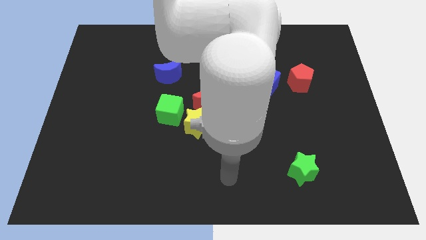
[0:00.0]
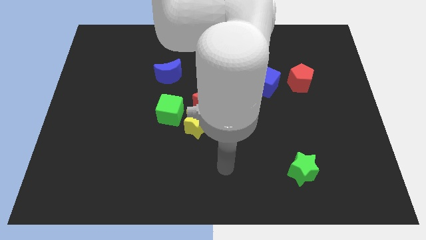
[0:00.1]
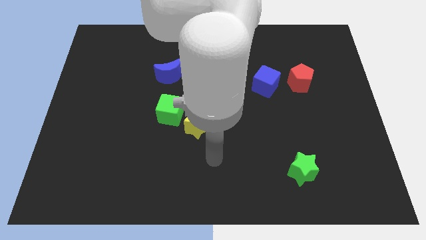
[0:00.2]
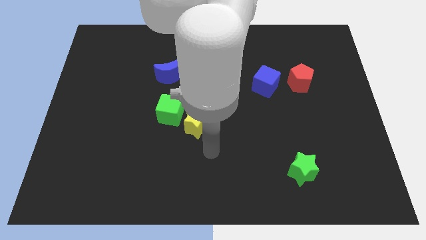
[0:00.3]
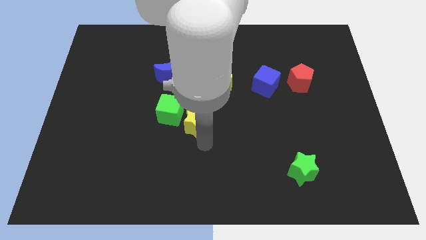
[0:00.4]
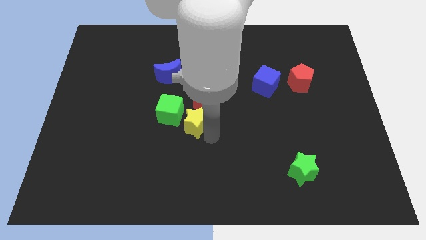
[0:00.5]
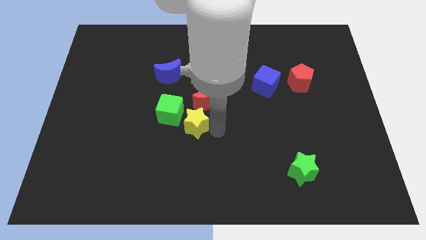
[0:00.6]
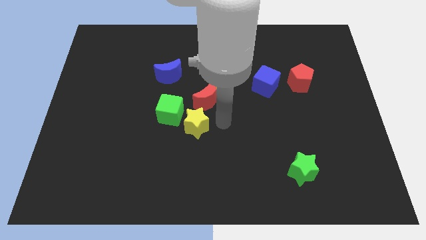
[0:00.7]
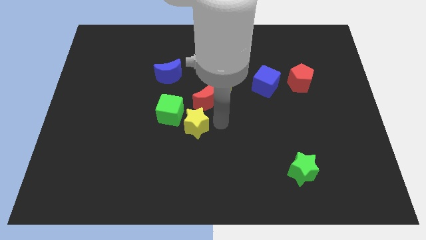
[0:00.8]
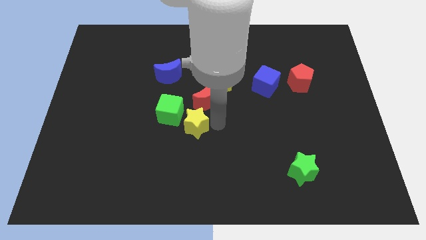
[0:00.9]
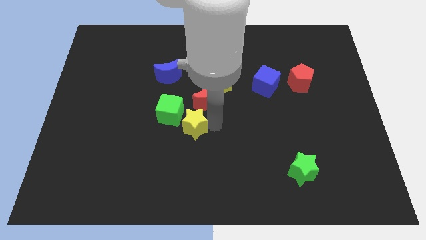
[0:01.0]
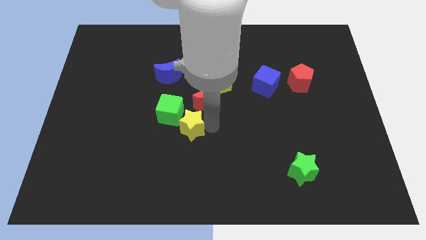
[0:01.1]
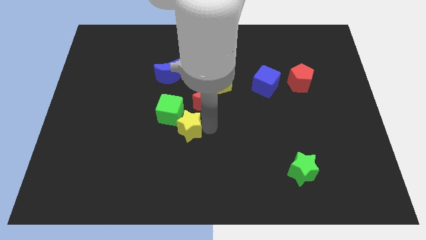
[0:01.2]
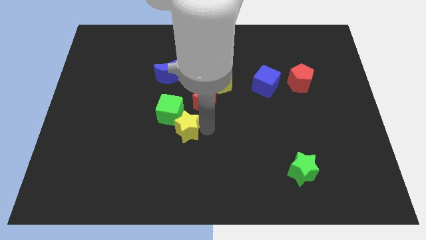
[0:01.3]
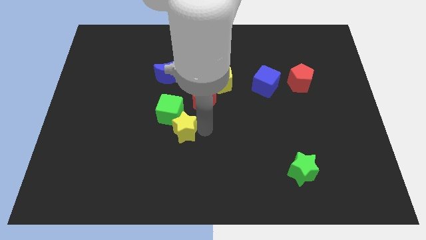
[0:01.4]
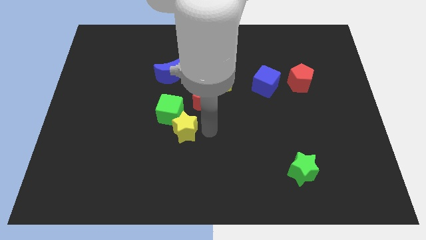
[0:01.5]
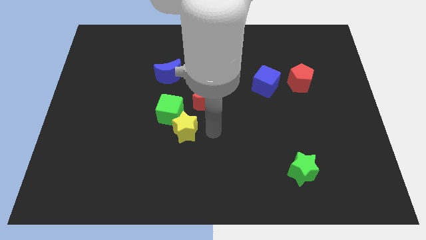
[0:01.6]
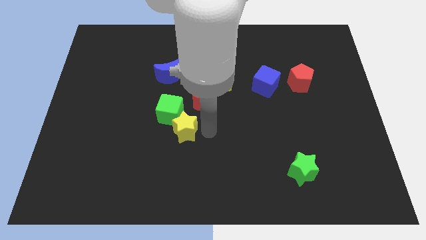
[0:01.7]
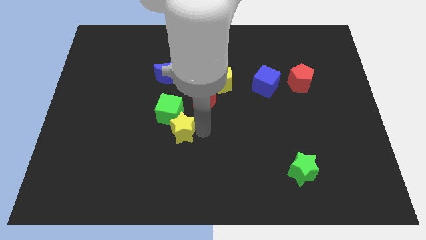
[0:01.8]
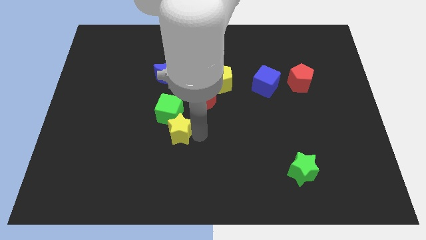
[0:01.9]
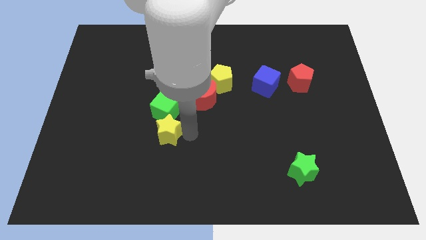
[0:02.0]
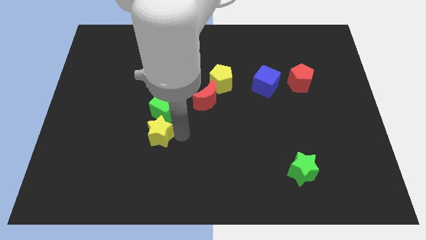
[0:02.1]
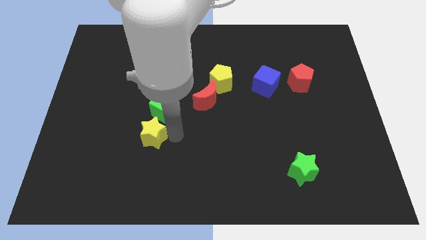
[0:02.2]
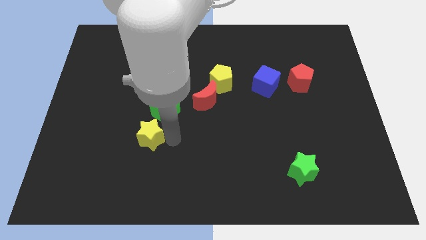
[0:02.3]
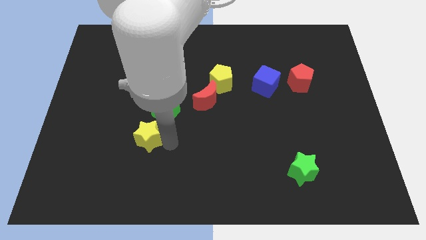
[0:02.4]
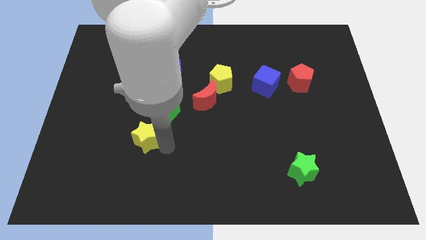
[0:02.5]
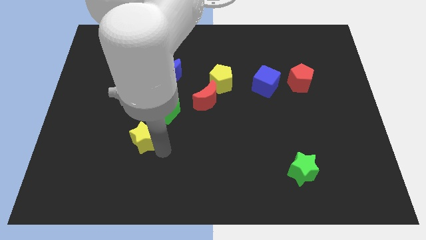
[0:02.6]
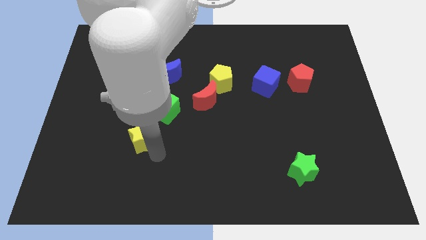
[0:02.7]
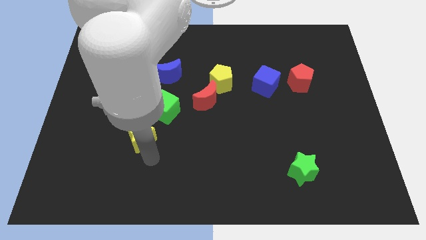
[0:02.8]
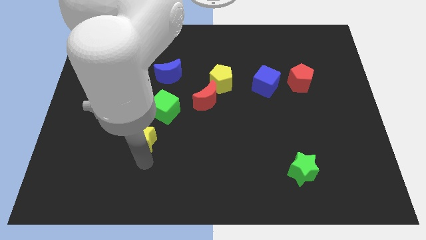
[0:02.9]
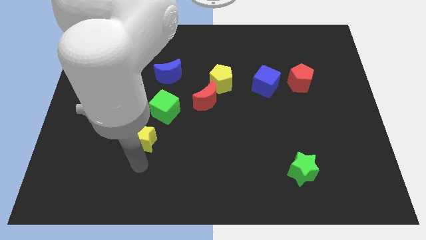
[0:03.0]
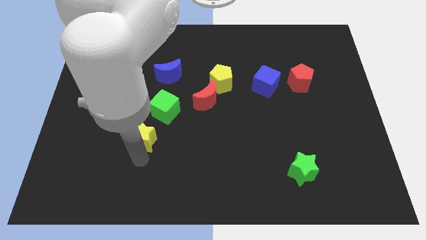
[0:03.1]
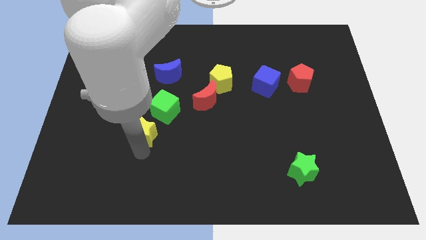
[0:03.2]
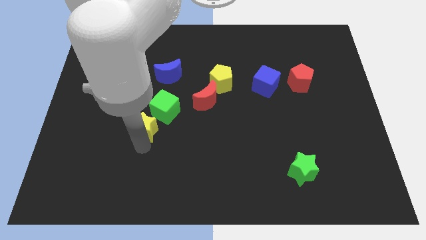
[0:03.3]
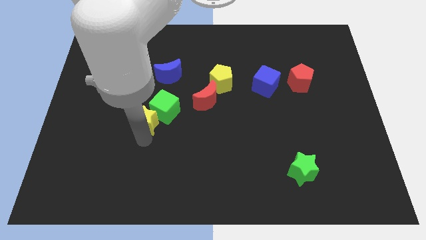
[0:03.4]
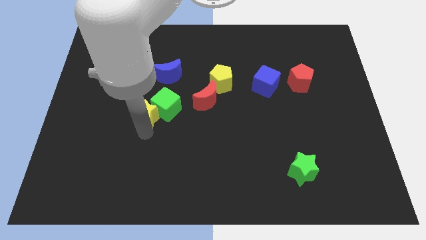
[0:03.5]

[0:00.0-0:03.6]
slightly move the yellow star up and then to the left

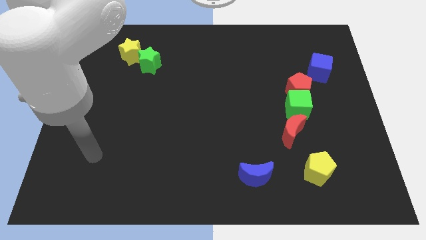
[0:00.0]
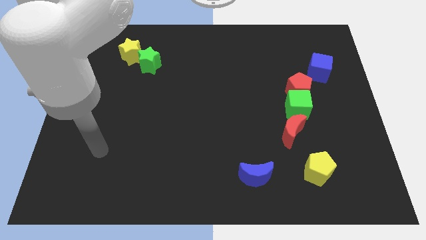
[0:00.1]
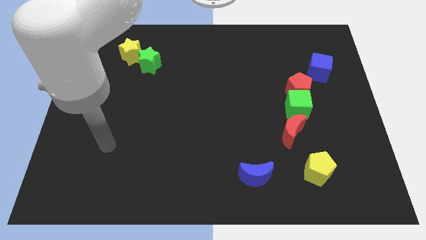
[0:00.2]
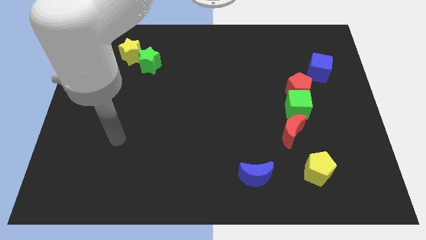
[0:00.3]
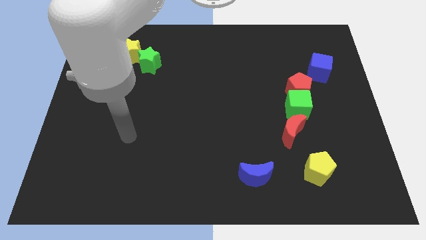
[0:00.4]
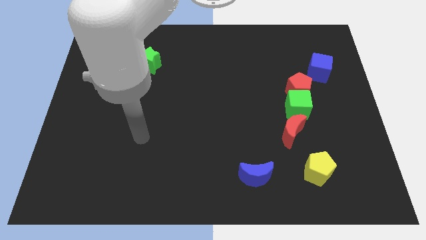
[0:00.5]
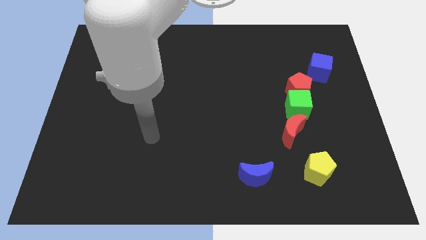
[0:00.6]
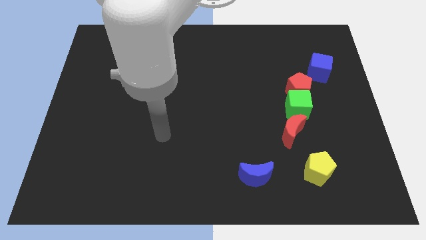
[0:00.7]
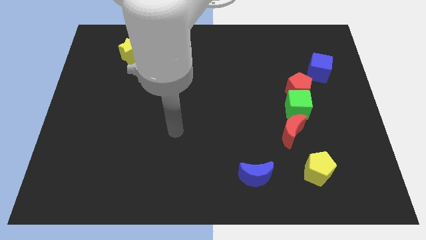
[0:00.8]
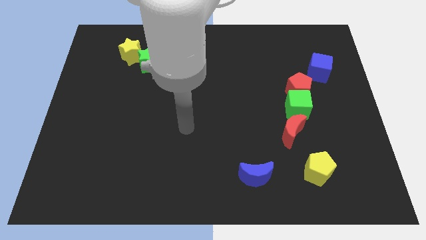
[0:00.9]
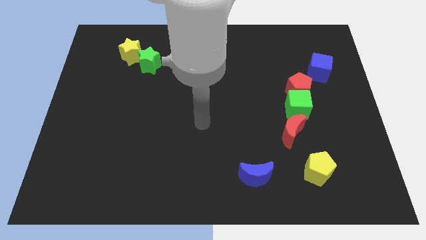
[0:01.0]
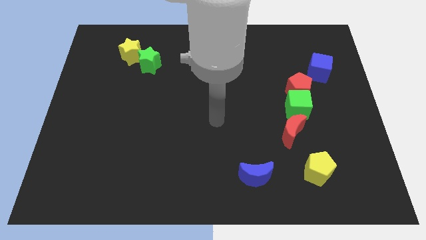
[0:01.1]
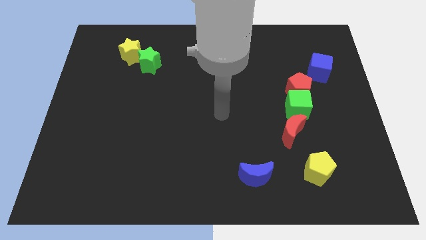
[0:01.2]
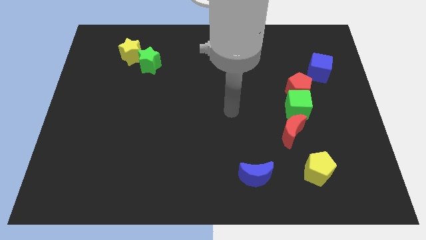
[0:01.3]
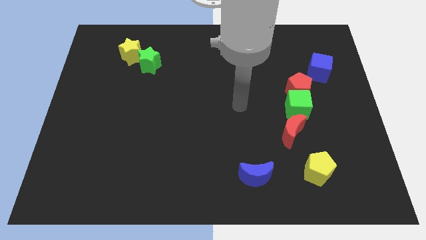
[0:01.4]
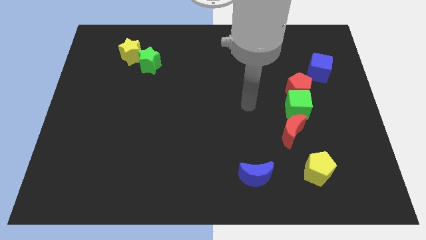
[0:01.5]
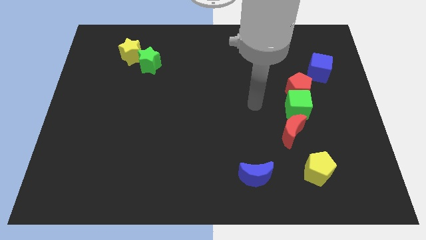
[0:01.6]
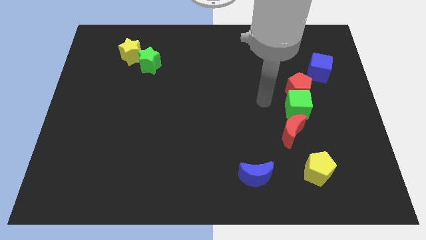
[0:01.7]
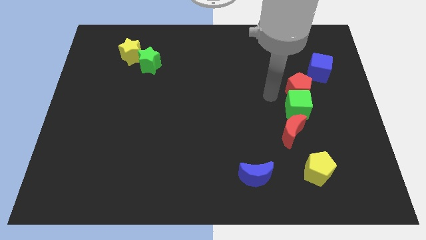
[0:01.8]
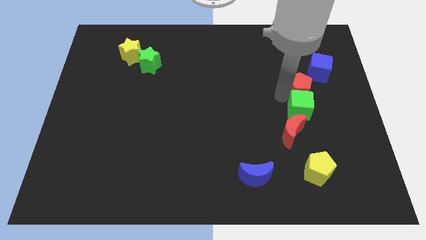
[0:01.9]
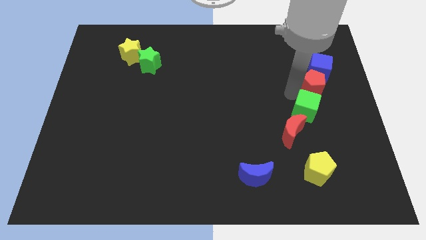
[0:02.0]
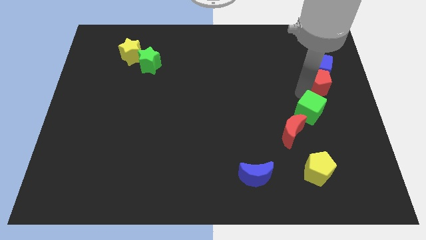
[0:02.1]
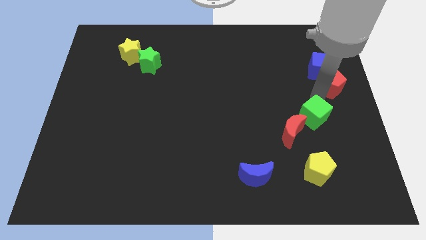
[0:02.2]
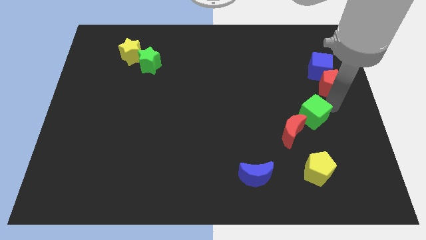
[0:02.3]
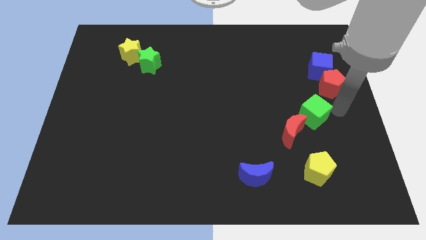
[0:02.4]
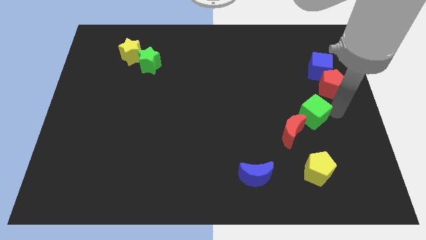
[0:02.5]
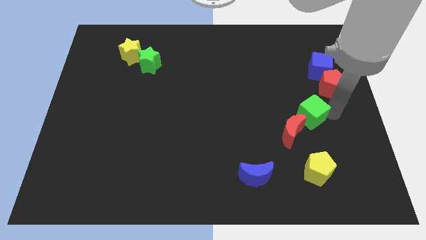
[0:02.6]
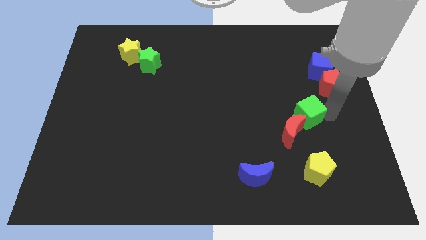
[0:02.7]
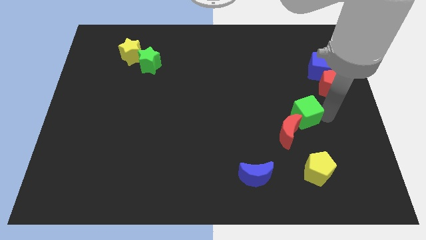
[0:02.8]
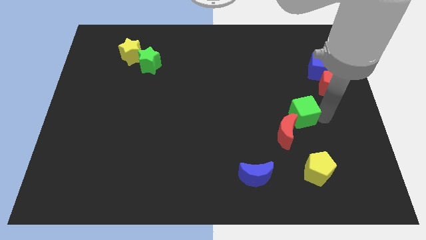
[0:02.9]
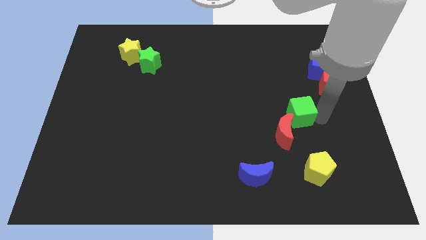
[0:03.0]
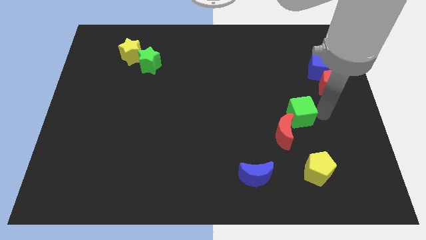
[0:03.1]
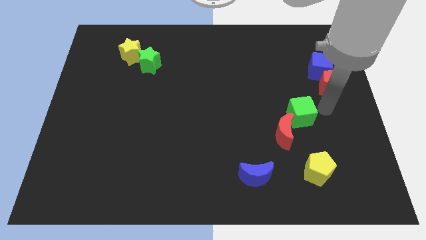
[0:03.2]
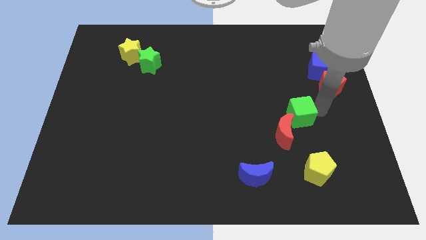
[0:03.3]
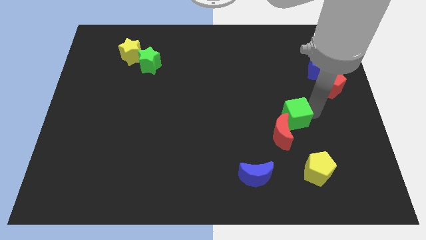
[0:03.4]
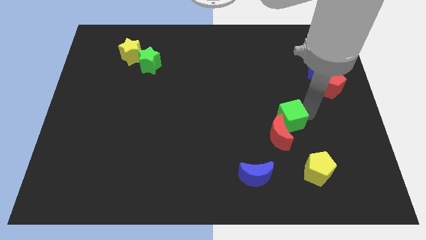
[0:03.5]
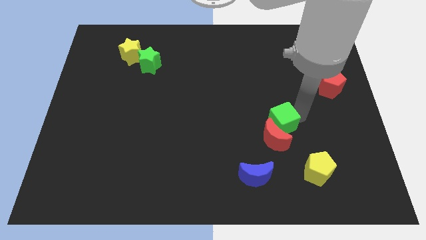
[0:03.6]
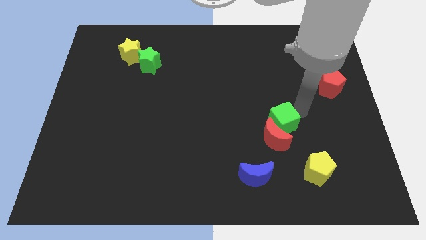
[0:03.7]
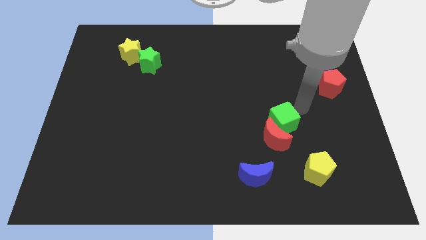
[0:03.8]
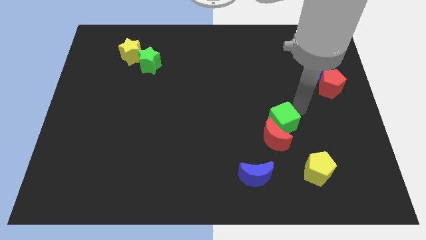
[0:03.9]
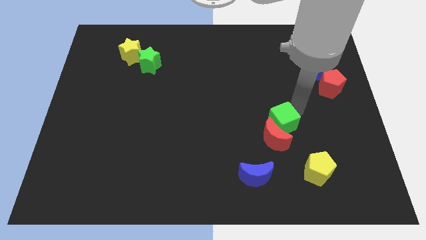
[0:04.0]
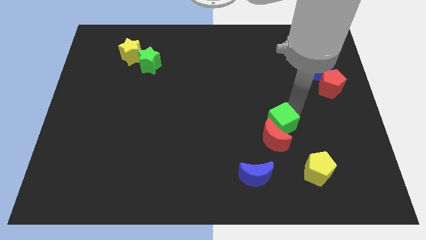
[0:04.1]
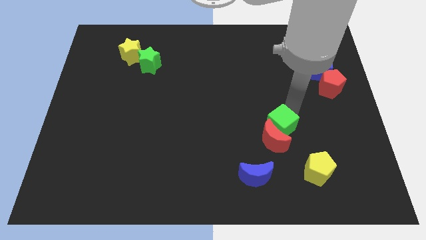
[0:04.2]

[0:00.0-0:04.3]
slightly move the green cube down and to the left diagonally
